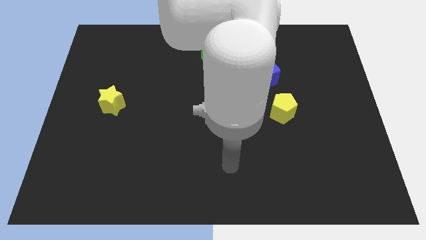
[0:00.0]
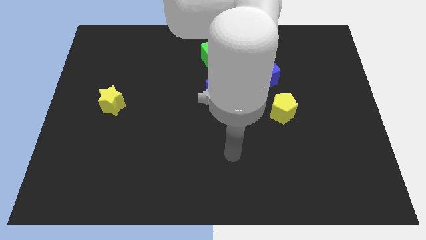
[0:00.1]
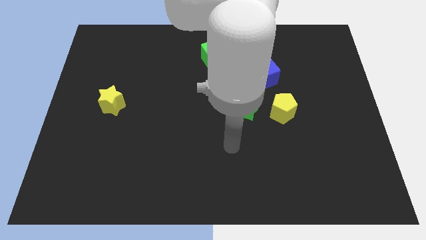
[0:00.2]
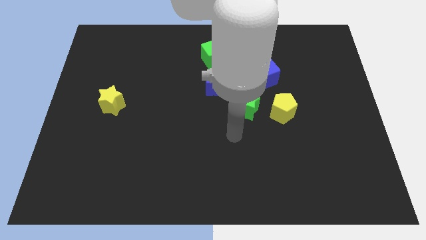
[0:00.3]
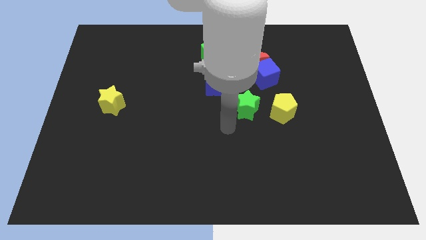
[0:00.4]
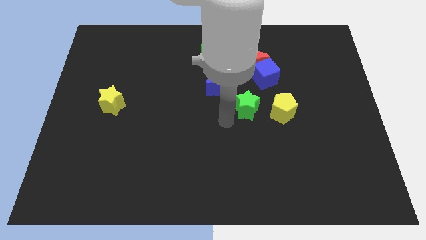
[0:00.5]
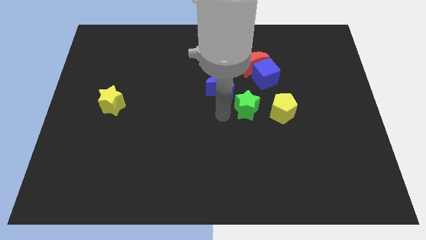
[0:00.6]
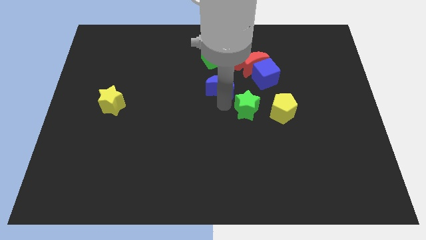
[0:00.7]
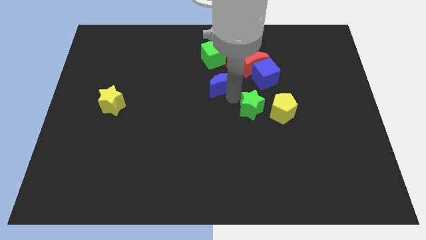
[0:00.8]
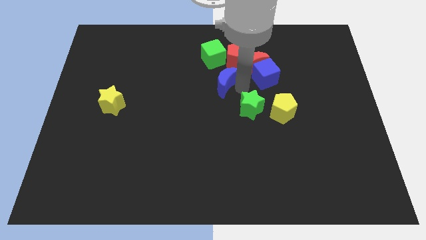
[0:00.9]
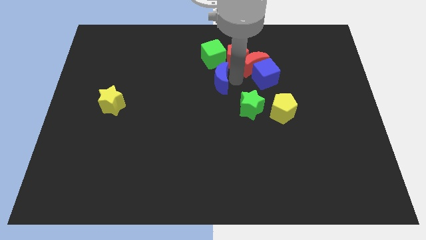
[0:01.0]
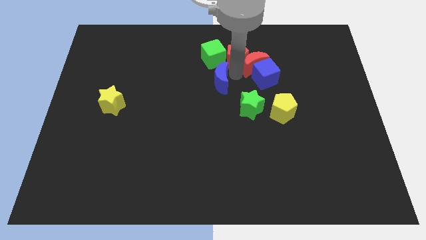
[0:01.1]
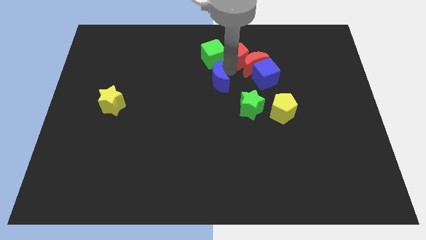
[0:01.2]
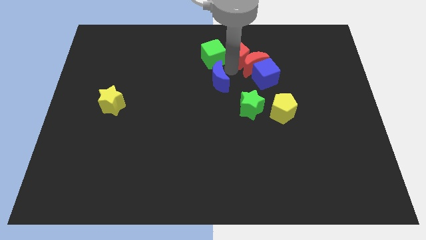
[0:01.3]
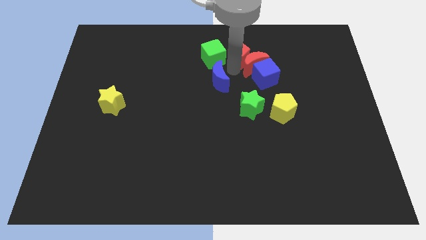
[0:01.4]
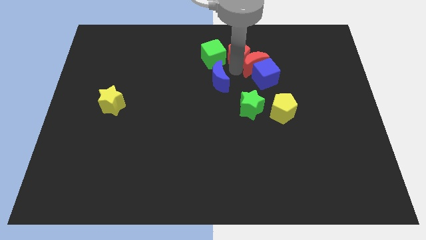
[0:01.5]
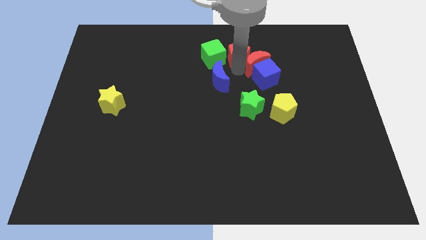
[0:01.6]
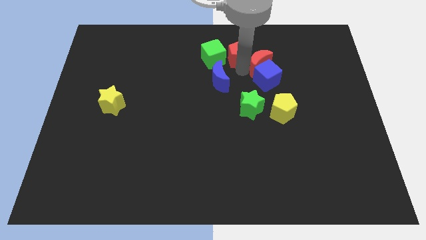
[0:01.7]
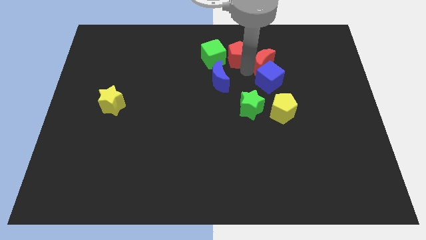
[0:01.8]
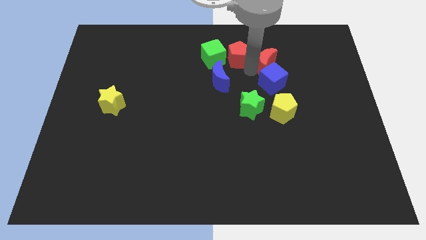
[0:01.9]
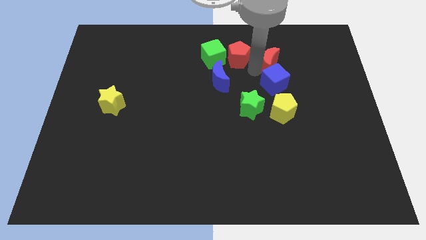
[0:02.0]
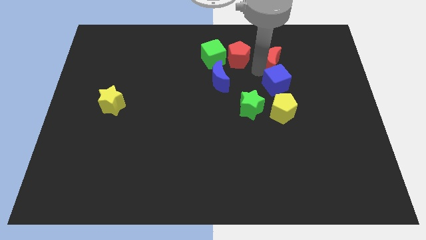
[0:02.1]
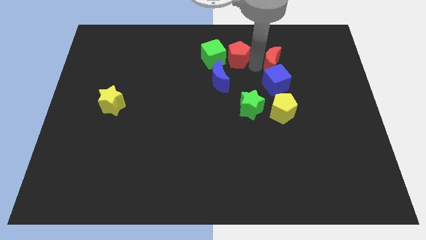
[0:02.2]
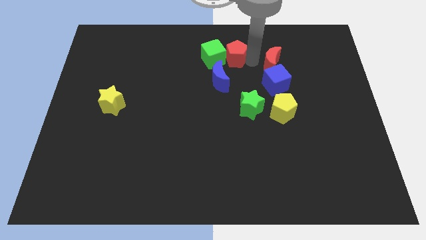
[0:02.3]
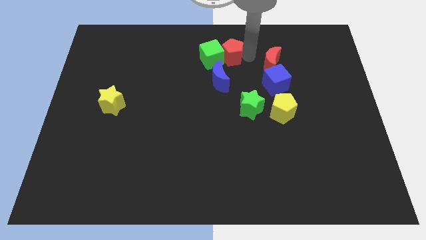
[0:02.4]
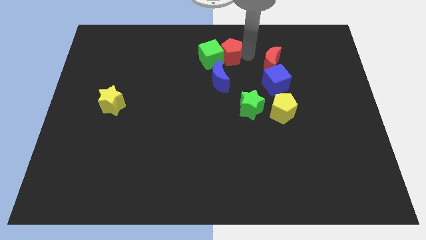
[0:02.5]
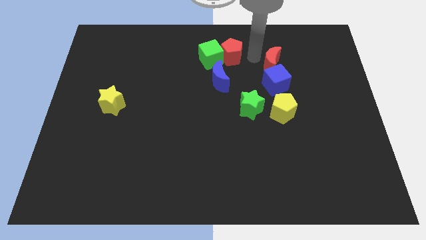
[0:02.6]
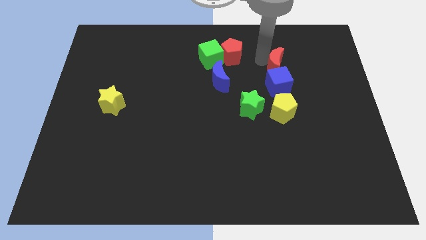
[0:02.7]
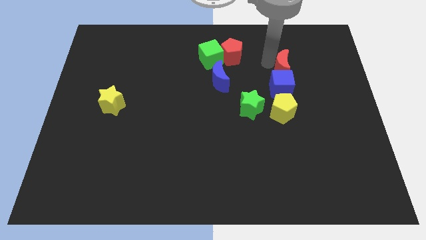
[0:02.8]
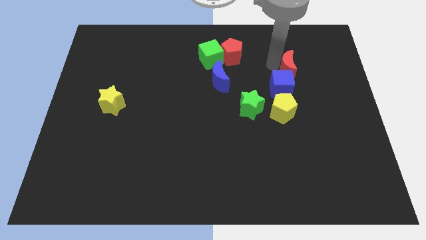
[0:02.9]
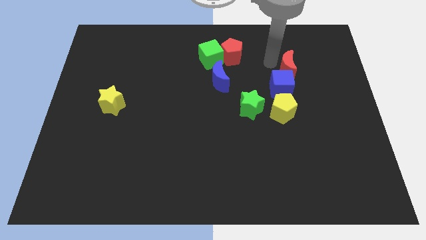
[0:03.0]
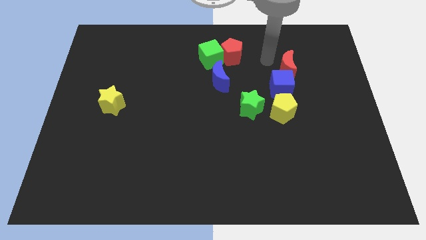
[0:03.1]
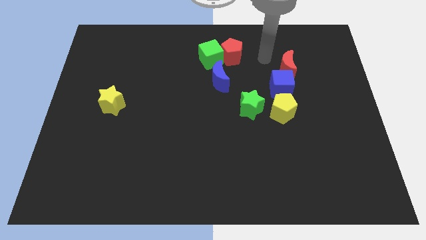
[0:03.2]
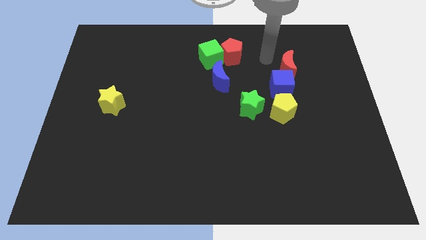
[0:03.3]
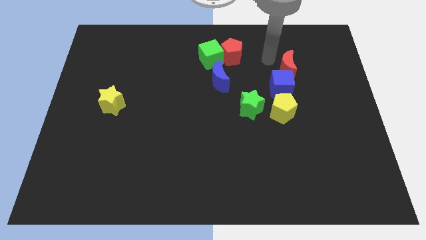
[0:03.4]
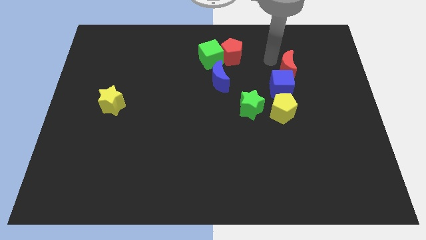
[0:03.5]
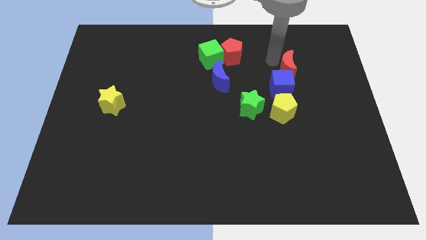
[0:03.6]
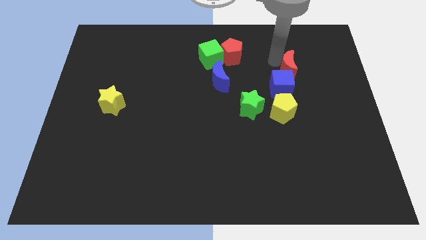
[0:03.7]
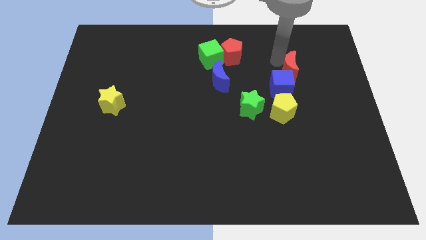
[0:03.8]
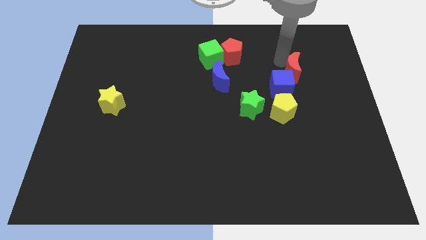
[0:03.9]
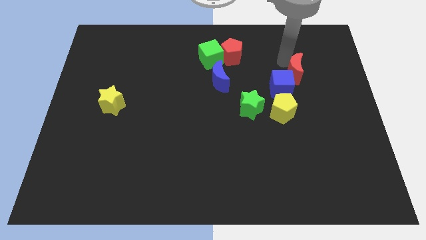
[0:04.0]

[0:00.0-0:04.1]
slightly move the red moon diagonally downwards and to the right

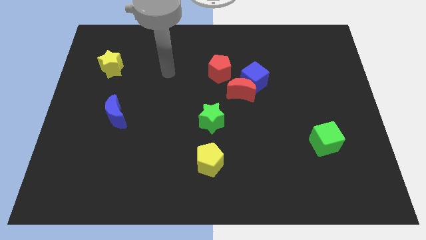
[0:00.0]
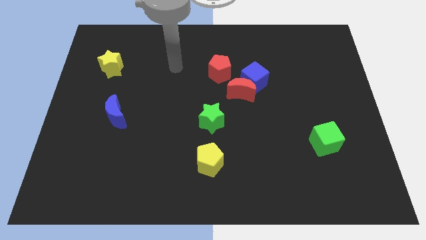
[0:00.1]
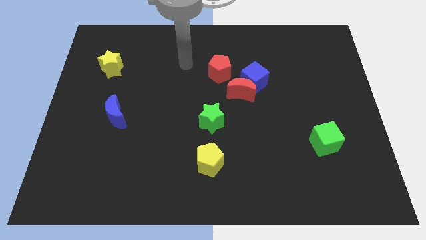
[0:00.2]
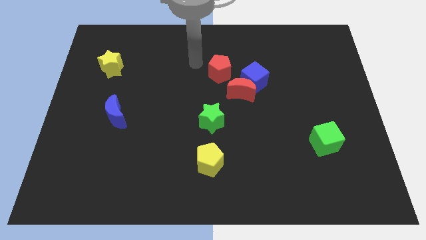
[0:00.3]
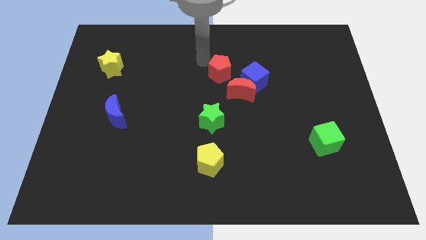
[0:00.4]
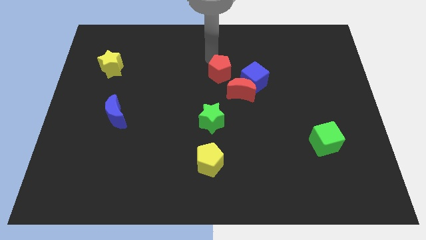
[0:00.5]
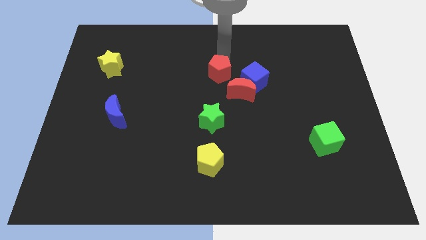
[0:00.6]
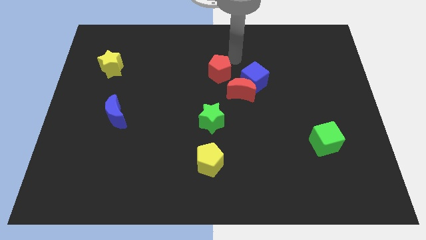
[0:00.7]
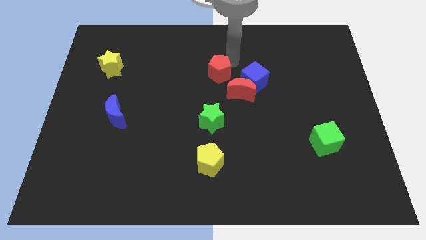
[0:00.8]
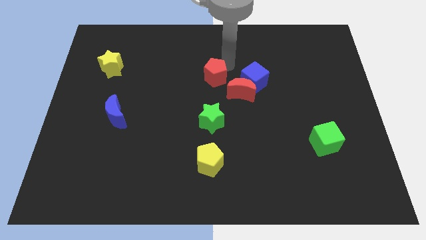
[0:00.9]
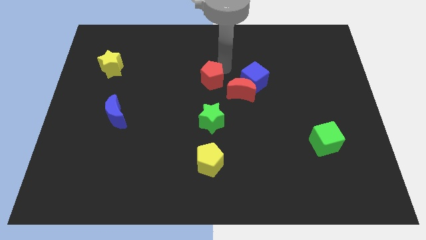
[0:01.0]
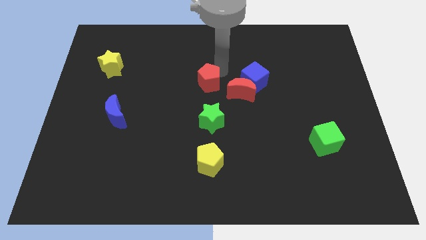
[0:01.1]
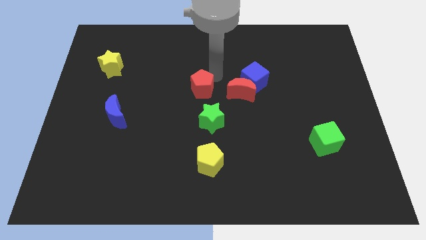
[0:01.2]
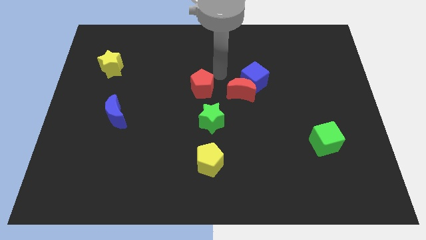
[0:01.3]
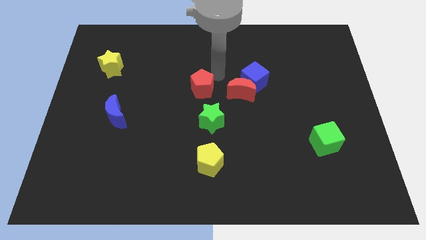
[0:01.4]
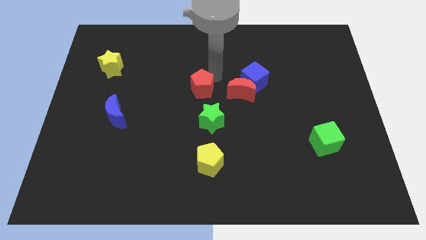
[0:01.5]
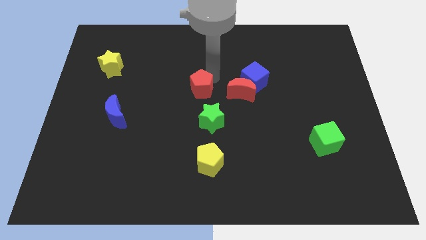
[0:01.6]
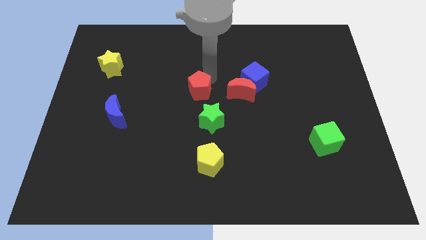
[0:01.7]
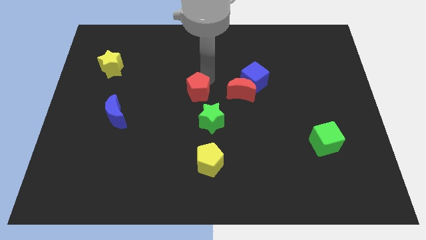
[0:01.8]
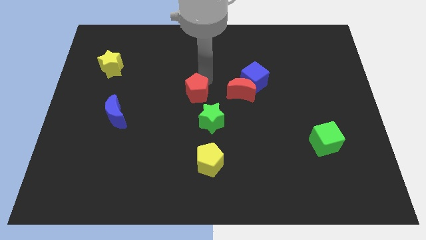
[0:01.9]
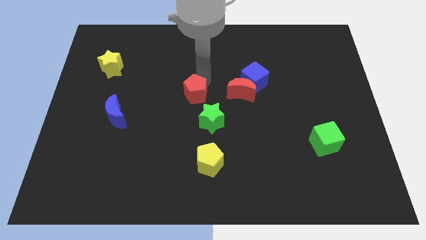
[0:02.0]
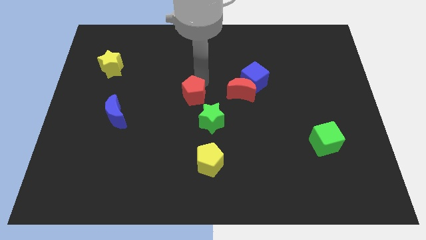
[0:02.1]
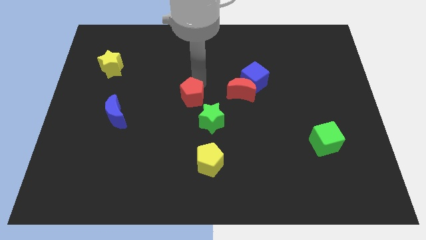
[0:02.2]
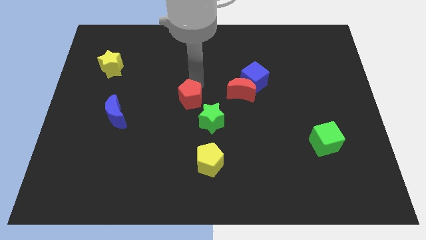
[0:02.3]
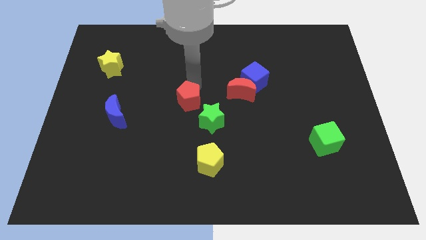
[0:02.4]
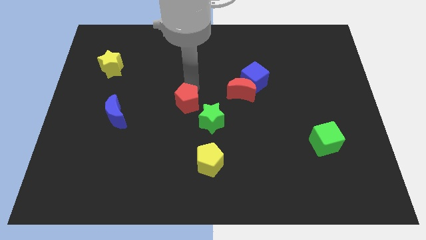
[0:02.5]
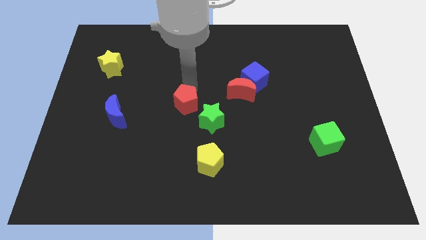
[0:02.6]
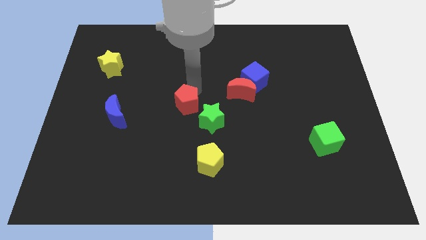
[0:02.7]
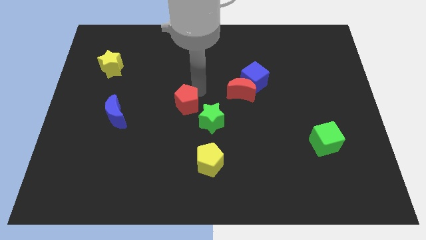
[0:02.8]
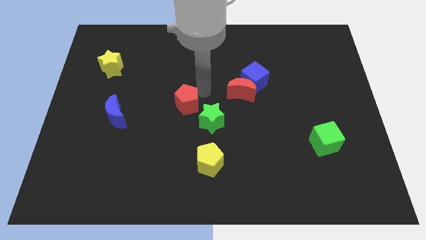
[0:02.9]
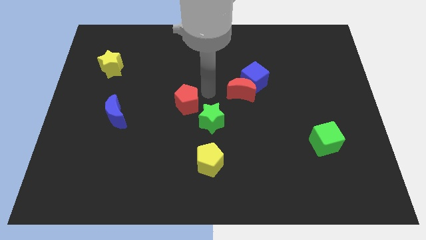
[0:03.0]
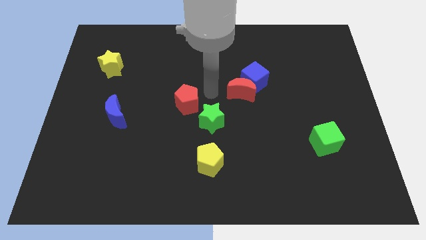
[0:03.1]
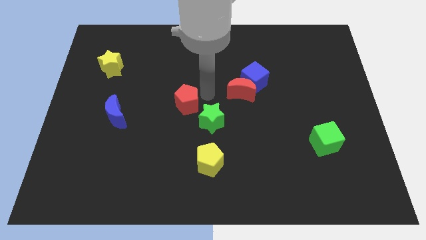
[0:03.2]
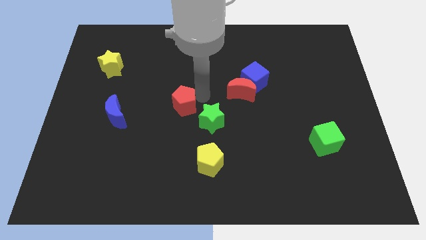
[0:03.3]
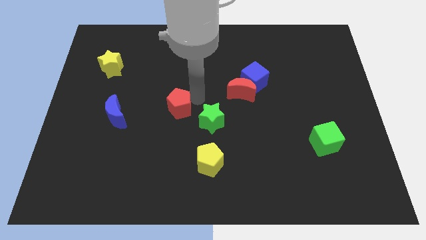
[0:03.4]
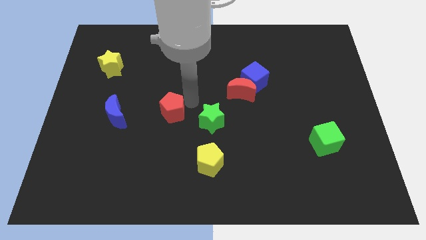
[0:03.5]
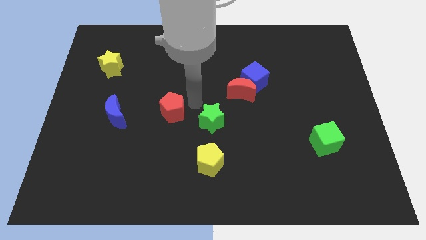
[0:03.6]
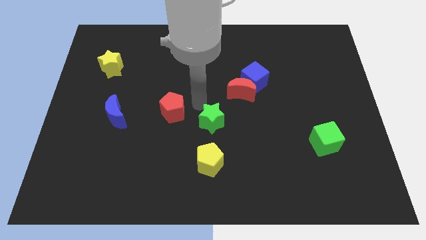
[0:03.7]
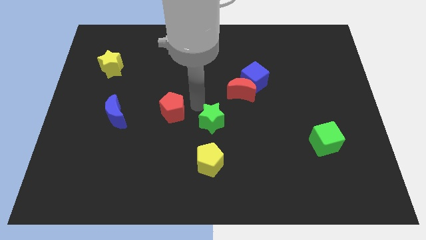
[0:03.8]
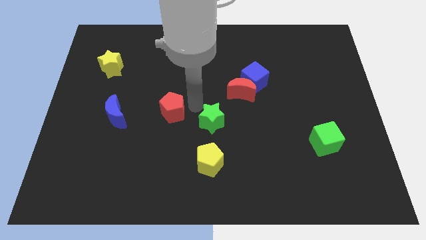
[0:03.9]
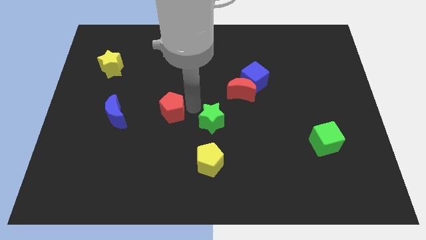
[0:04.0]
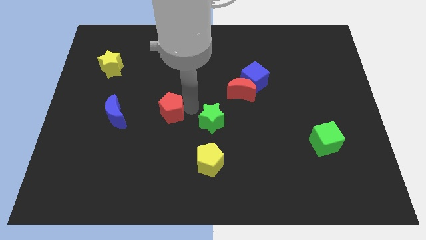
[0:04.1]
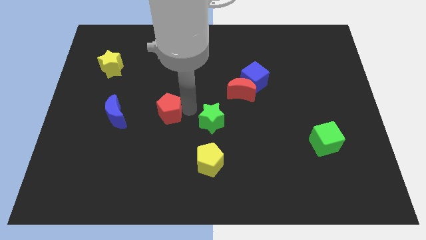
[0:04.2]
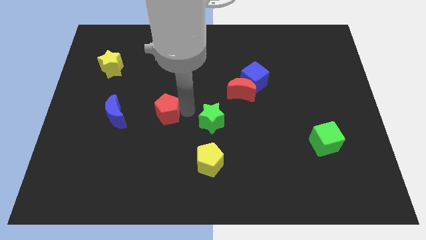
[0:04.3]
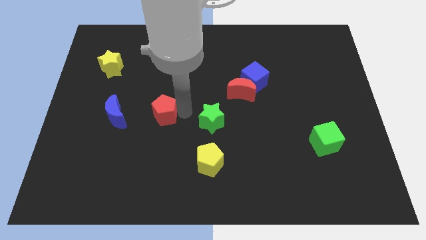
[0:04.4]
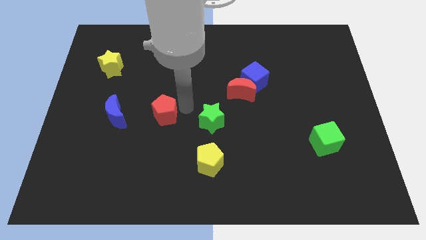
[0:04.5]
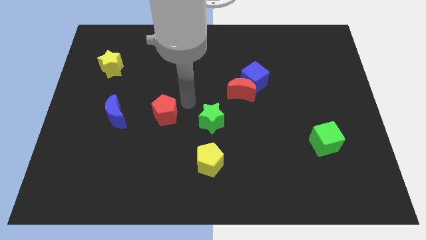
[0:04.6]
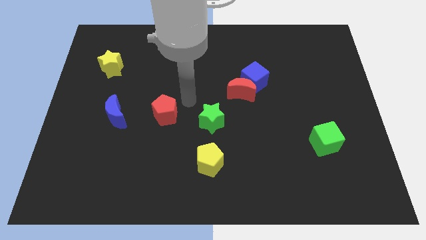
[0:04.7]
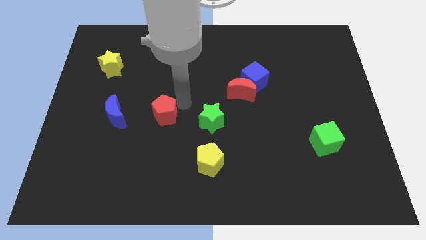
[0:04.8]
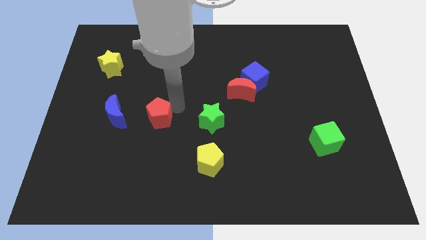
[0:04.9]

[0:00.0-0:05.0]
push the red pentagon diagonally down and left
